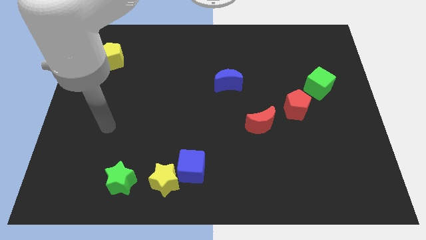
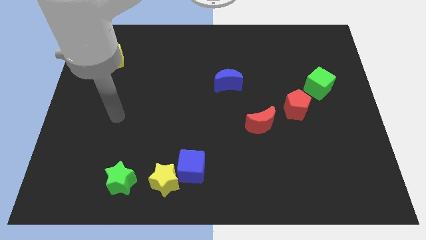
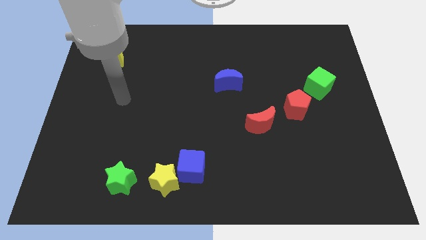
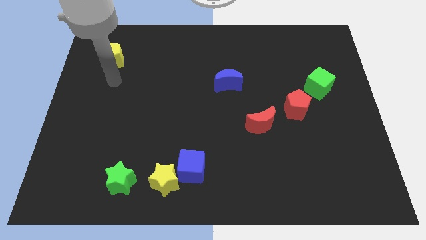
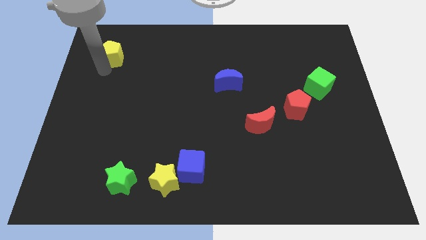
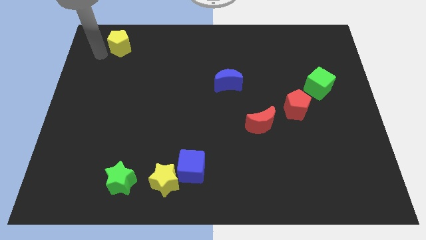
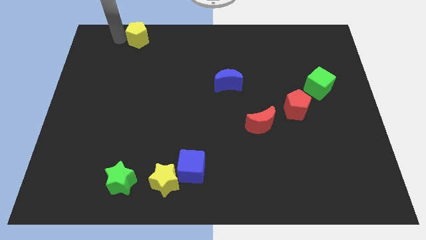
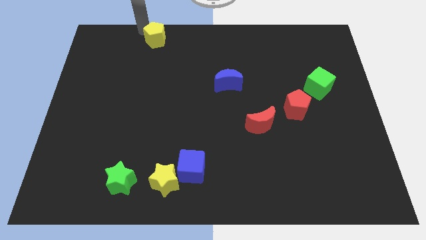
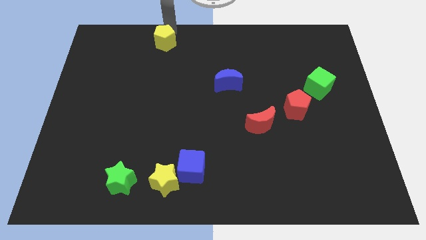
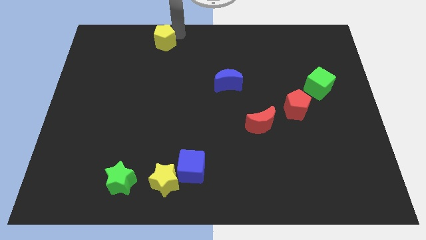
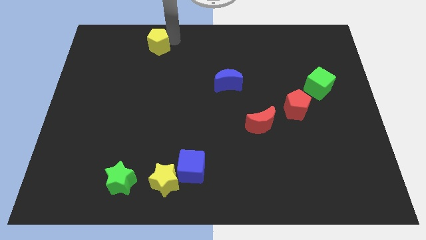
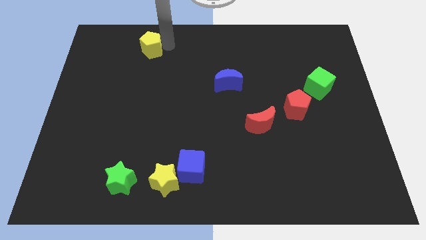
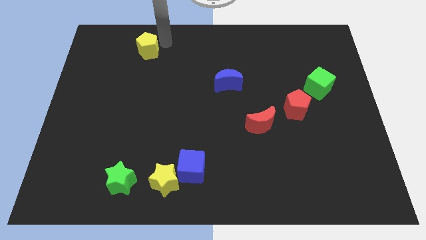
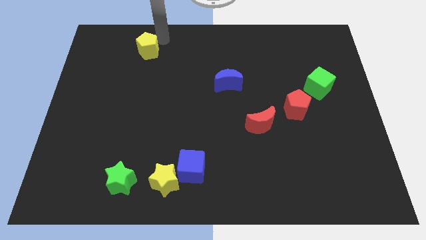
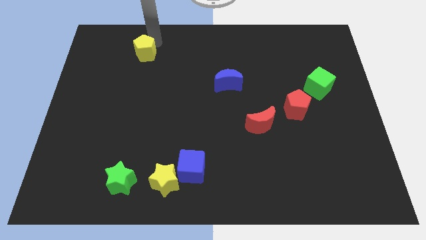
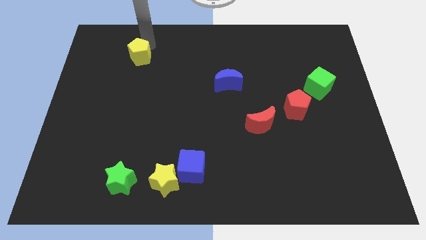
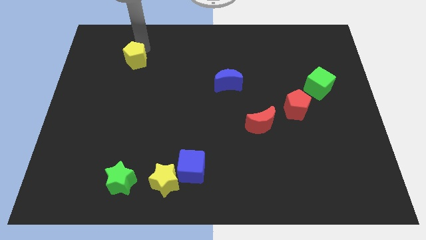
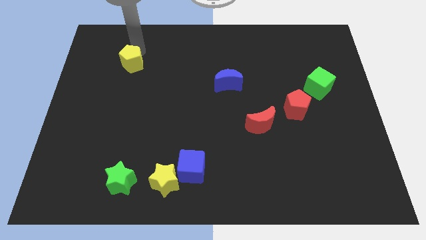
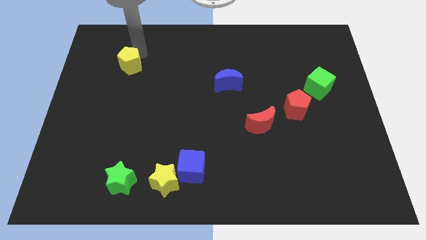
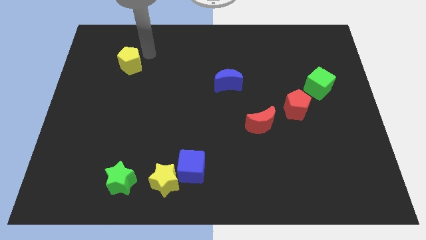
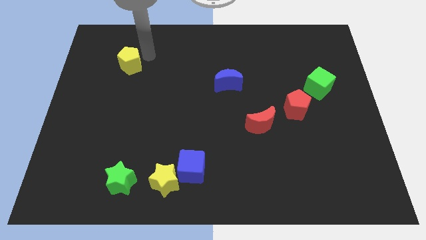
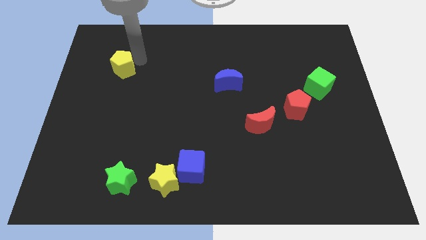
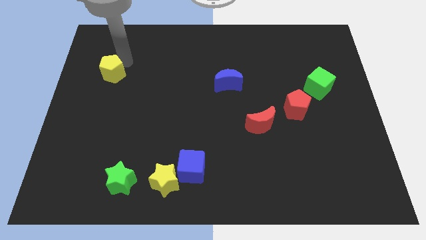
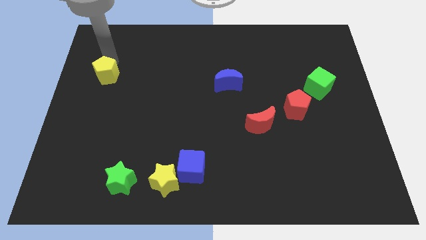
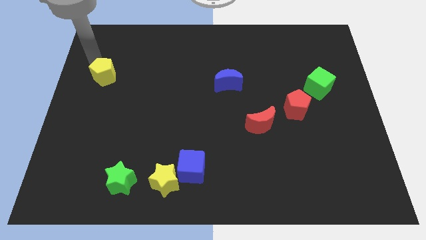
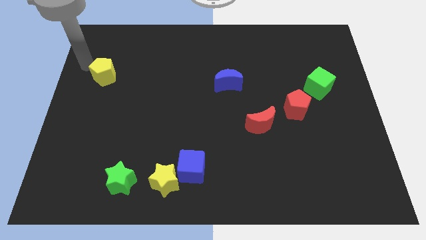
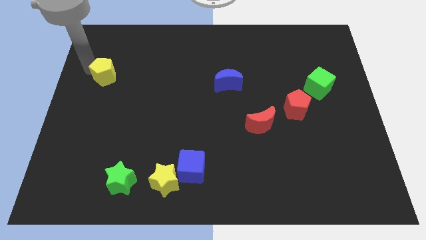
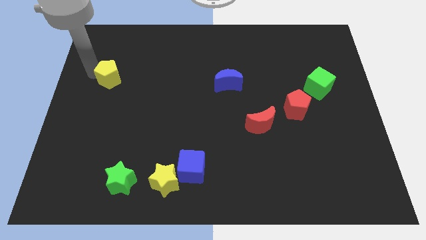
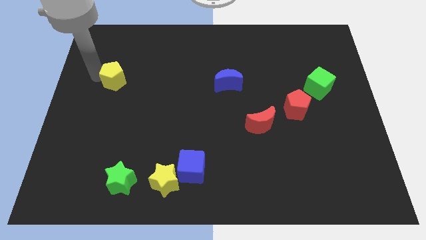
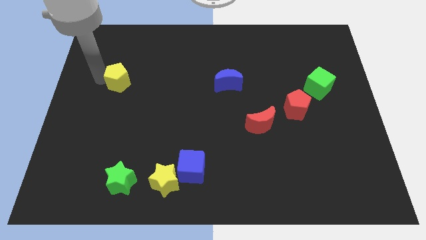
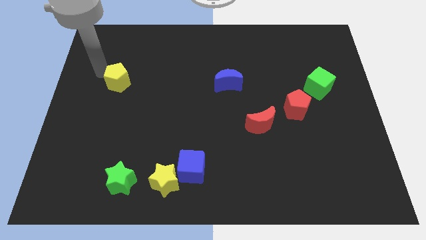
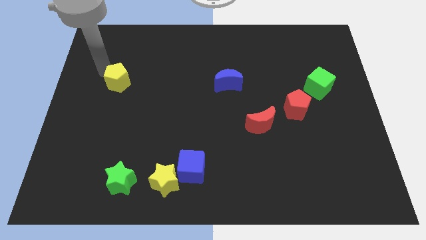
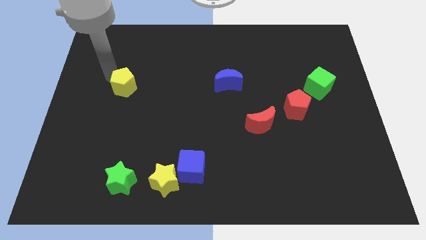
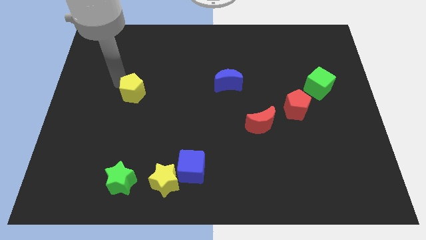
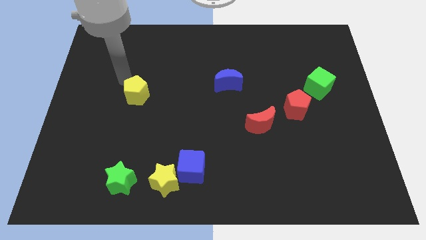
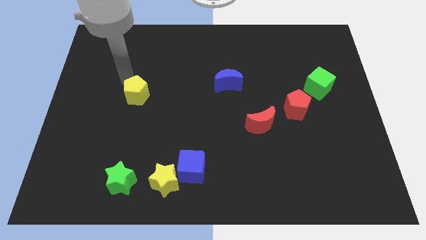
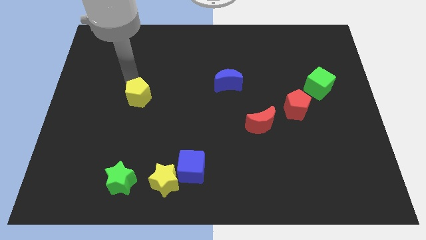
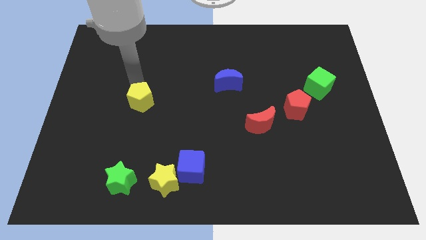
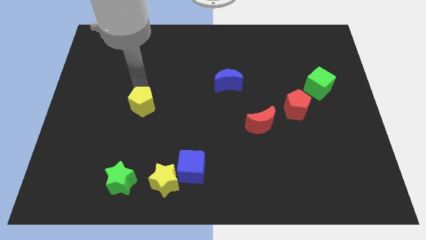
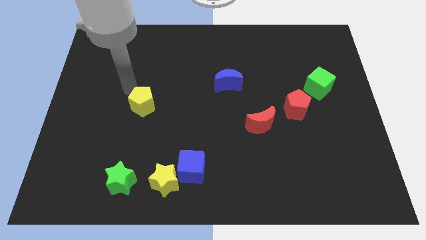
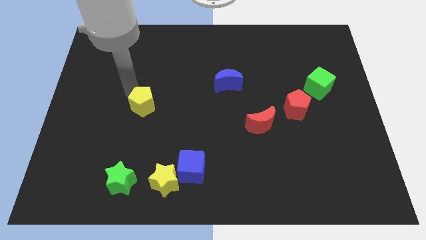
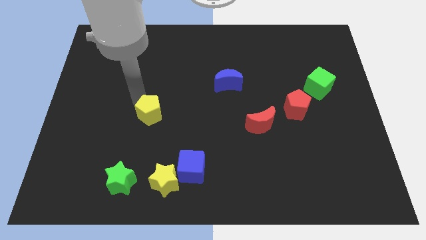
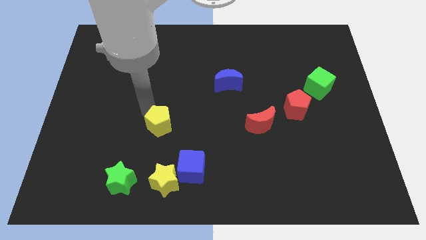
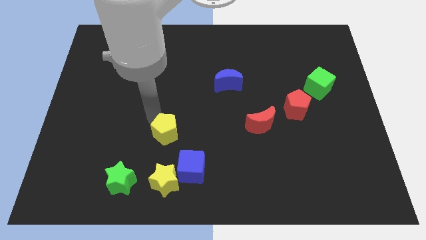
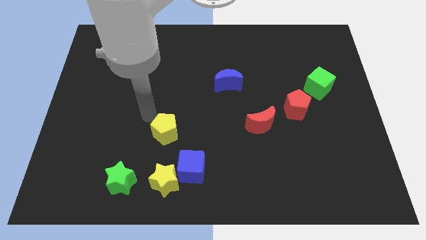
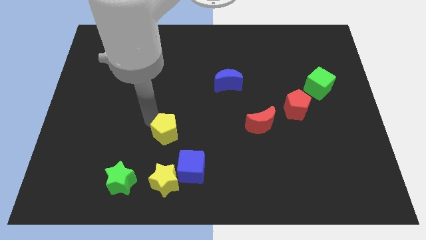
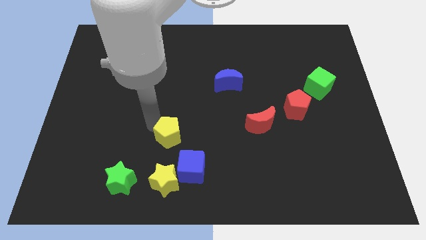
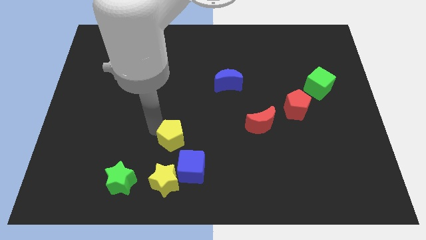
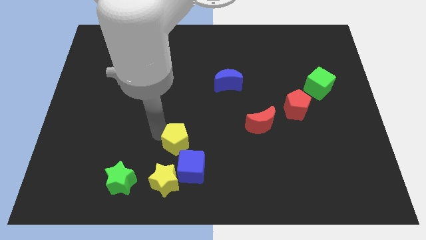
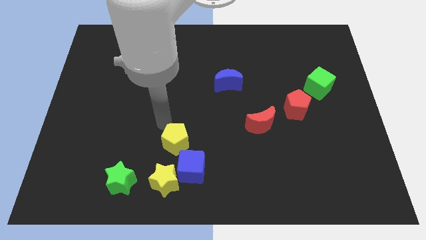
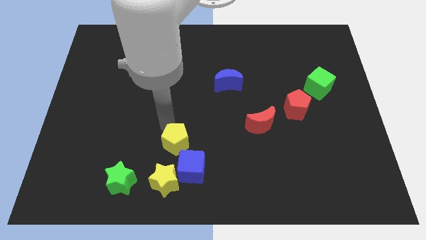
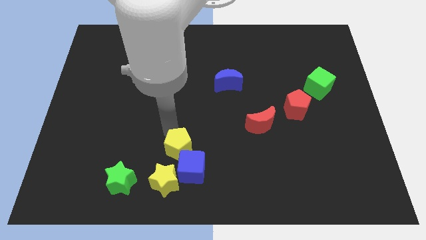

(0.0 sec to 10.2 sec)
push the yellow pentagon towards the blue cube

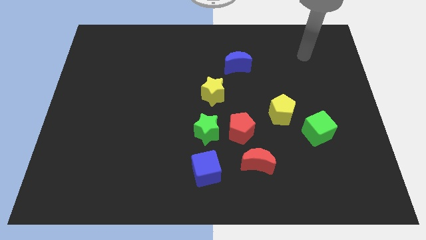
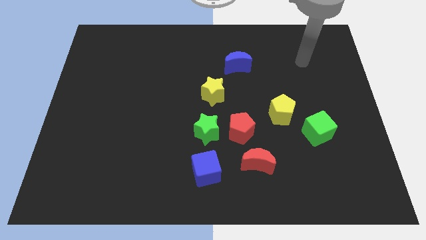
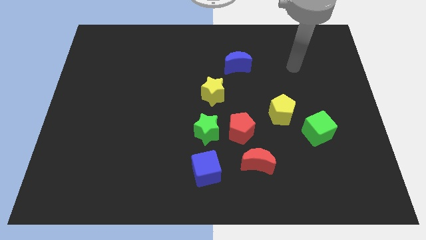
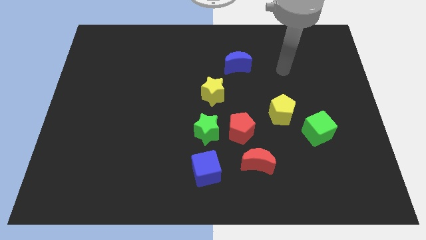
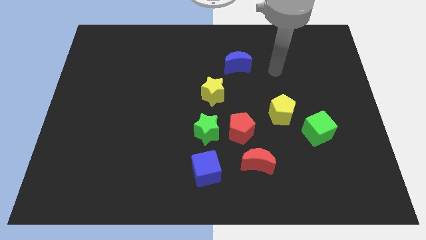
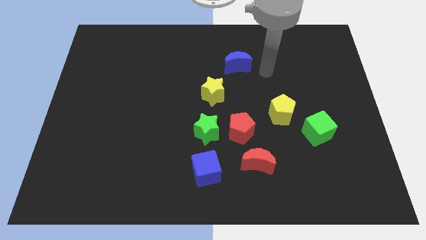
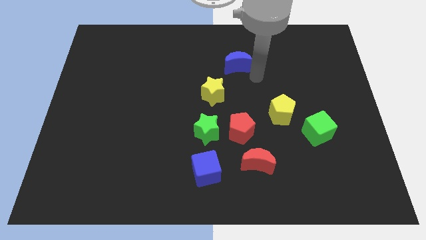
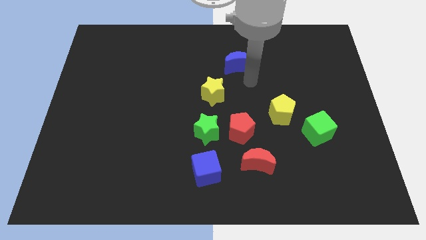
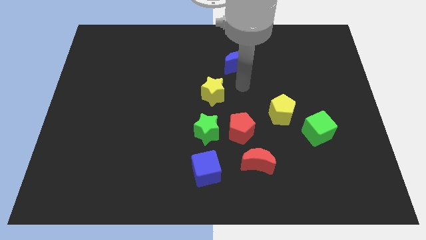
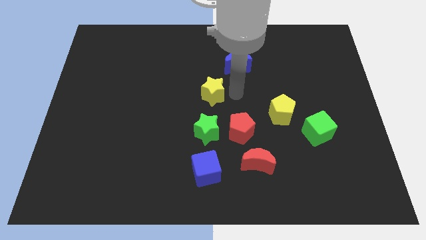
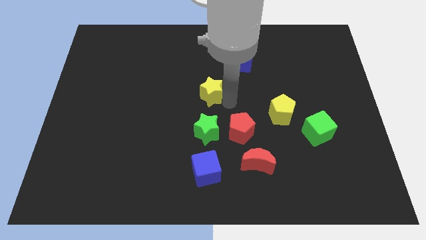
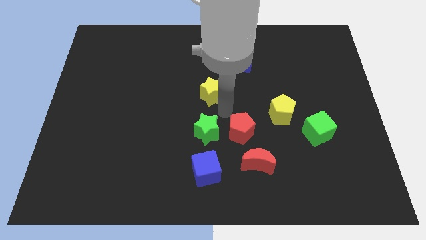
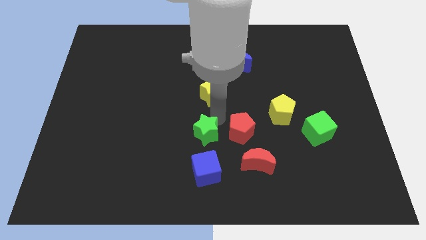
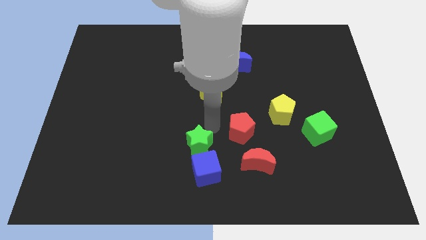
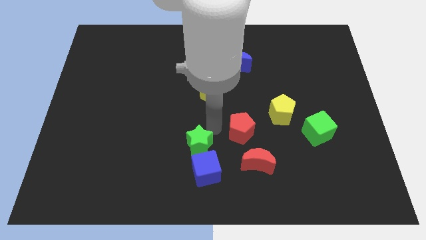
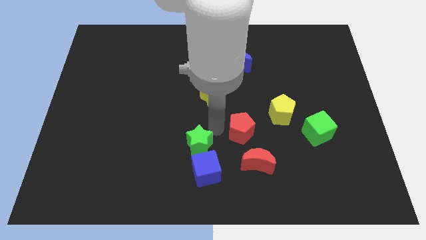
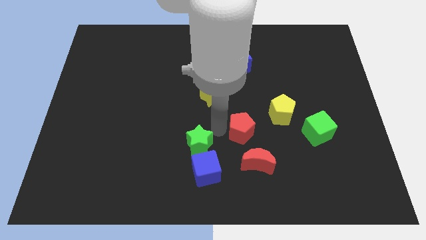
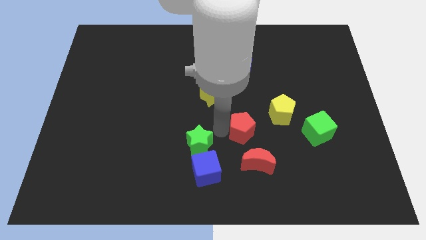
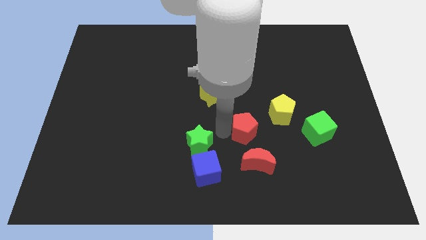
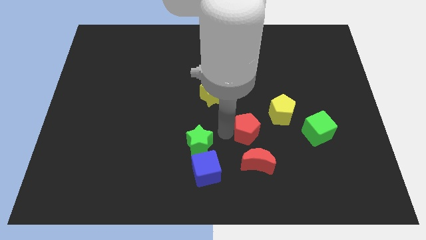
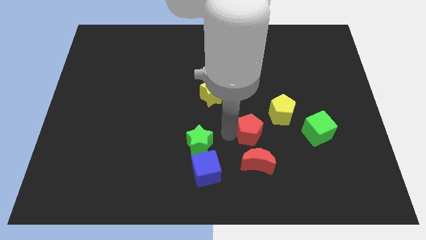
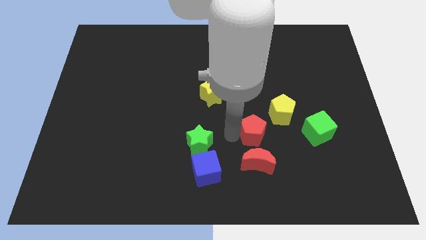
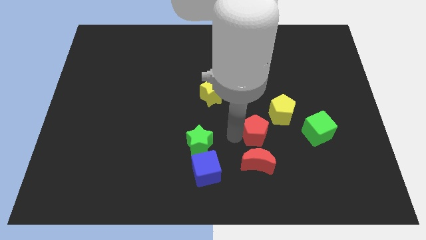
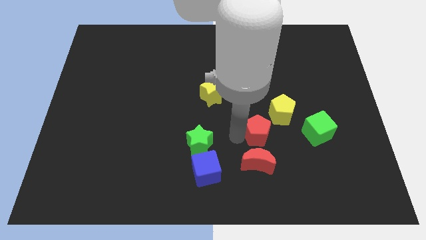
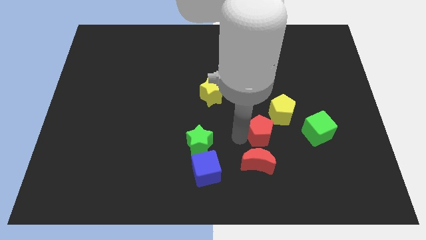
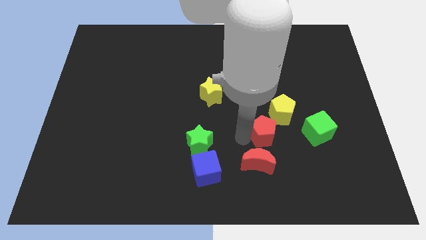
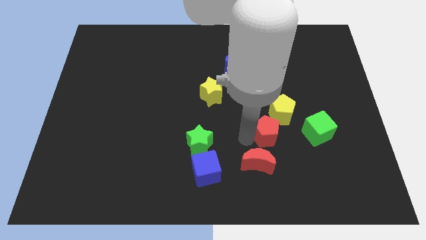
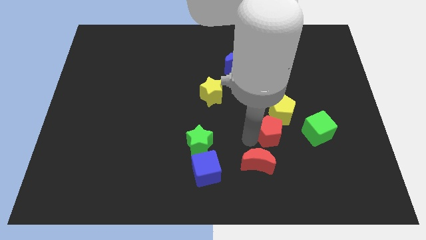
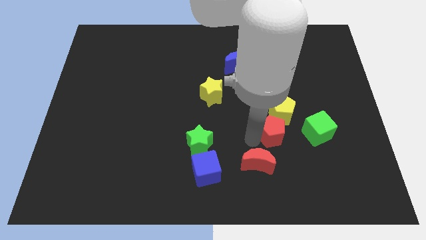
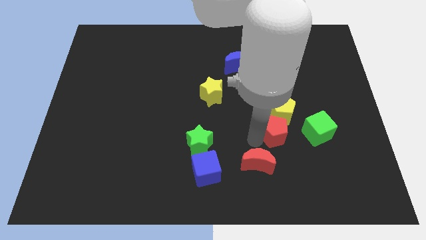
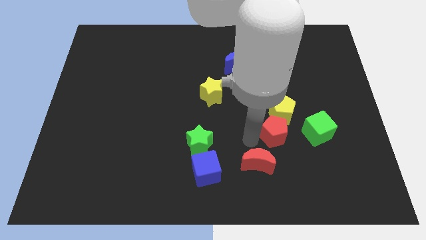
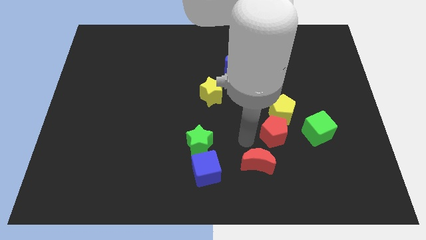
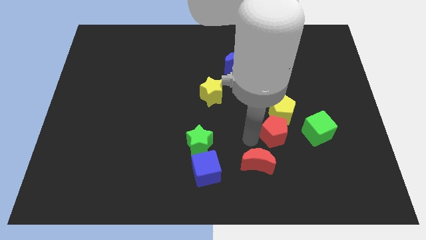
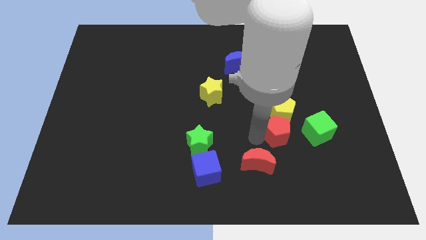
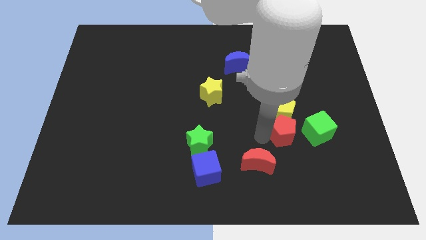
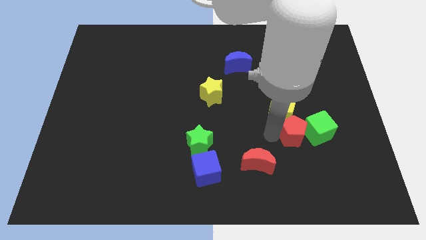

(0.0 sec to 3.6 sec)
put the red pentagon next to the green cube
